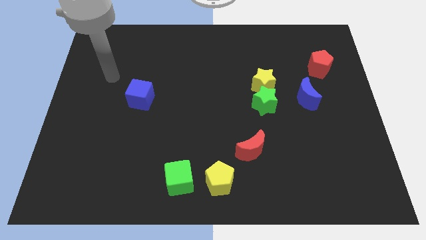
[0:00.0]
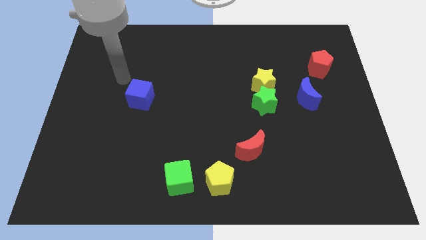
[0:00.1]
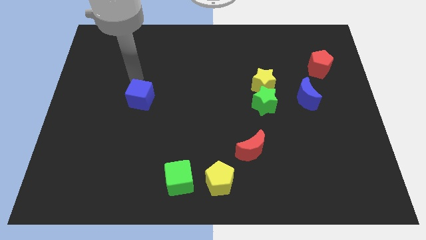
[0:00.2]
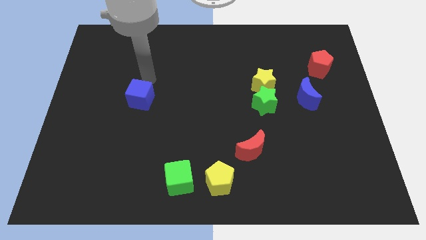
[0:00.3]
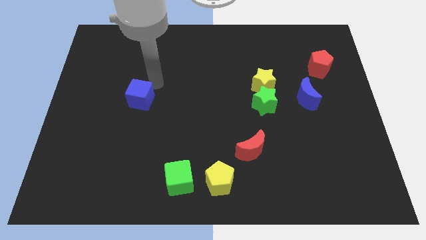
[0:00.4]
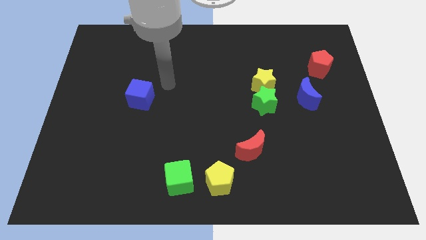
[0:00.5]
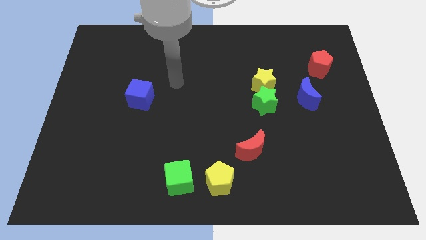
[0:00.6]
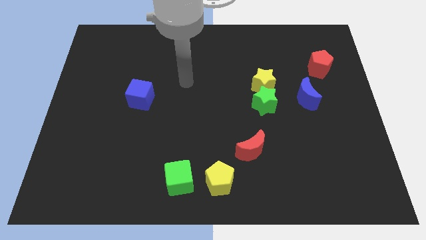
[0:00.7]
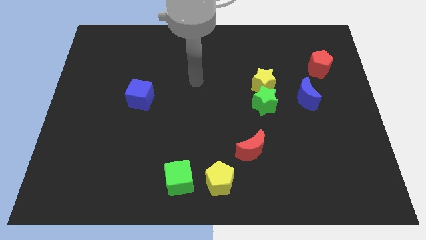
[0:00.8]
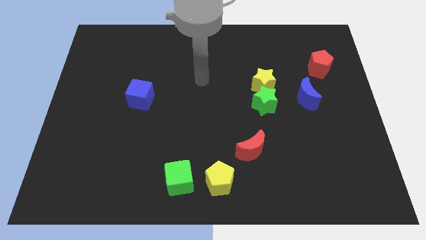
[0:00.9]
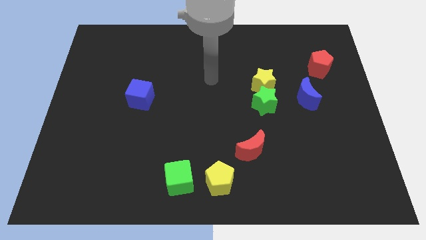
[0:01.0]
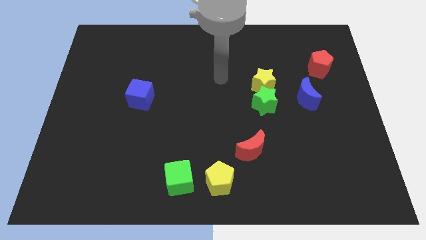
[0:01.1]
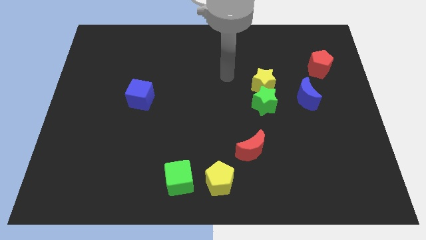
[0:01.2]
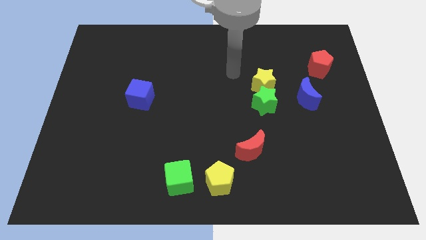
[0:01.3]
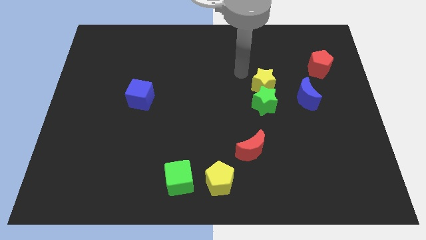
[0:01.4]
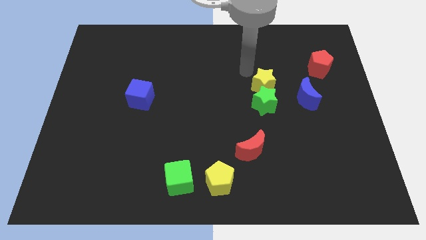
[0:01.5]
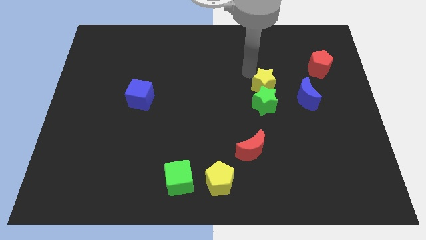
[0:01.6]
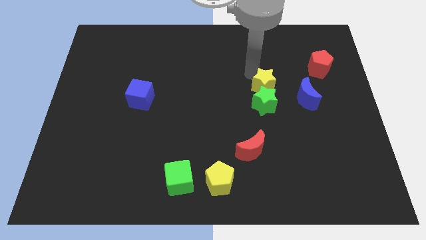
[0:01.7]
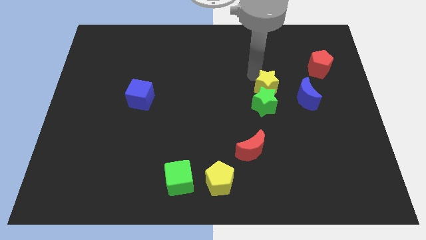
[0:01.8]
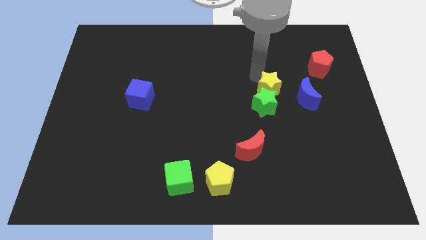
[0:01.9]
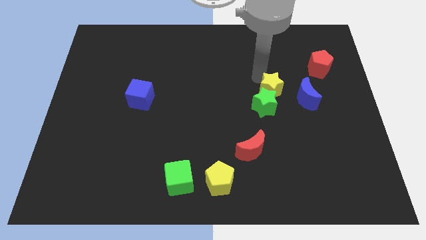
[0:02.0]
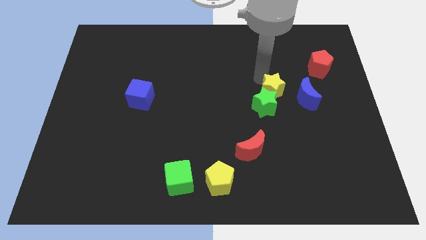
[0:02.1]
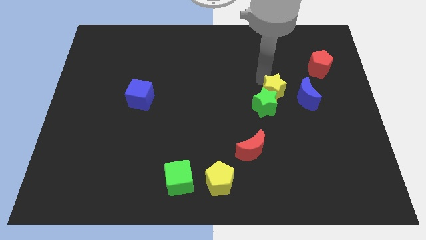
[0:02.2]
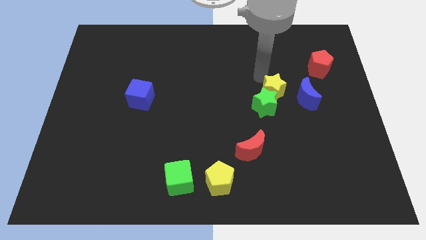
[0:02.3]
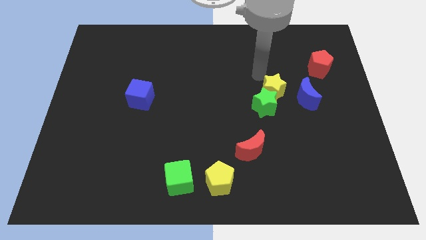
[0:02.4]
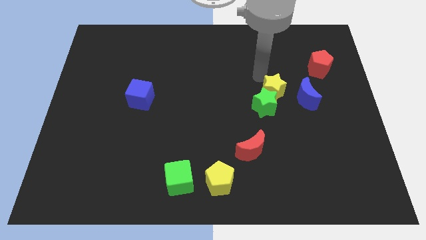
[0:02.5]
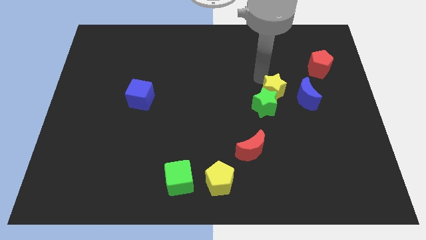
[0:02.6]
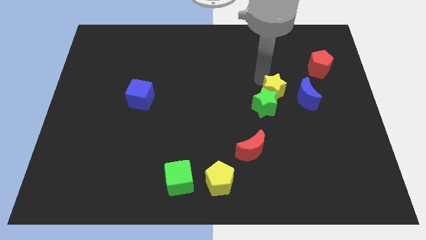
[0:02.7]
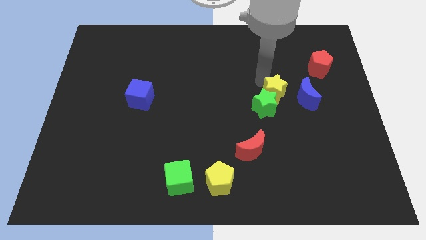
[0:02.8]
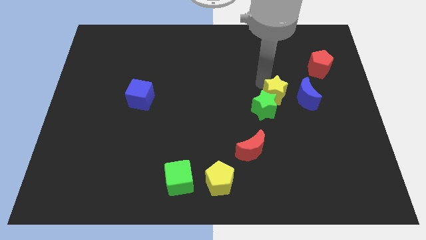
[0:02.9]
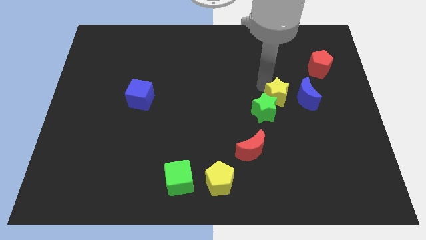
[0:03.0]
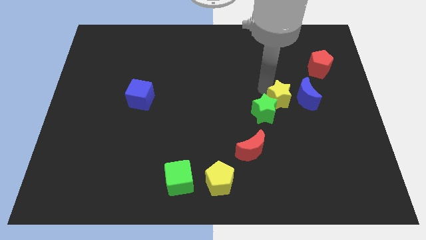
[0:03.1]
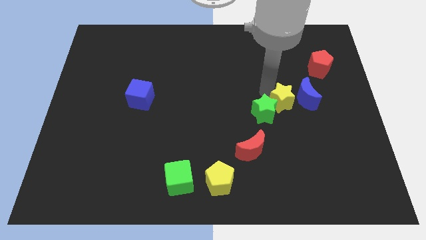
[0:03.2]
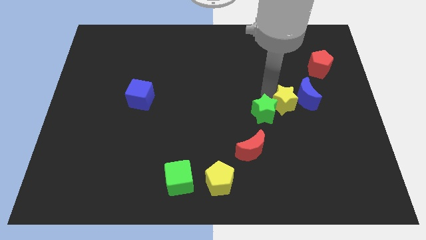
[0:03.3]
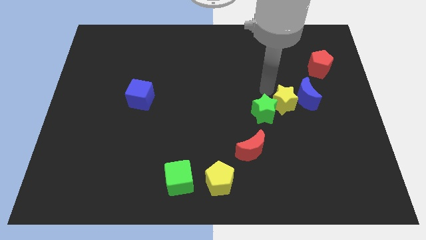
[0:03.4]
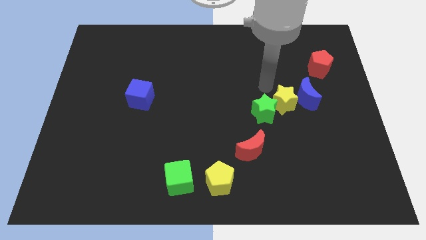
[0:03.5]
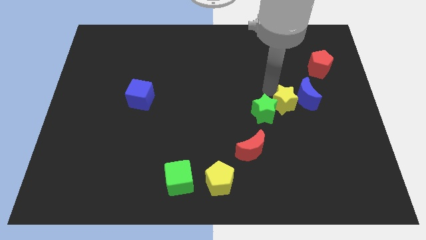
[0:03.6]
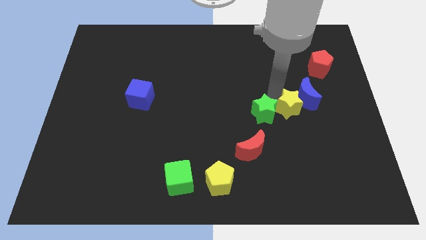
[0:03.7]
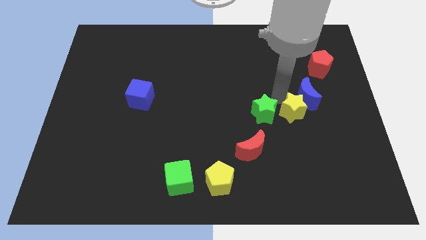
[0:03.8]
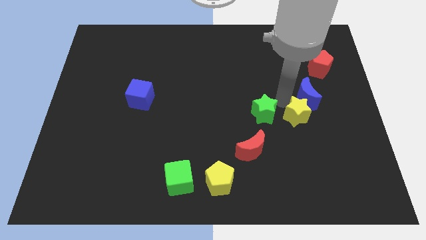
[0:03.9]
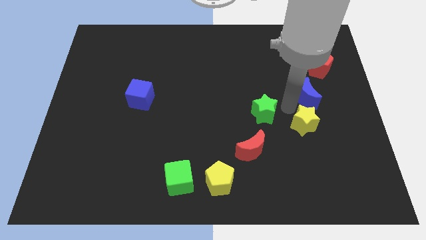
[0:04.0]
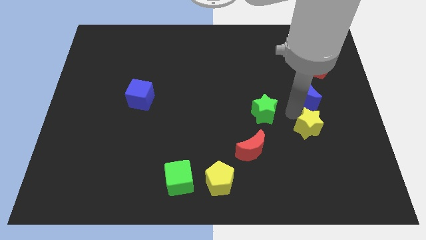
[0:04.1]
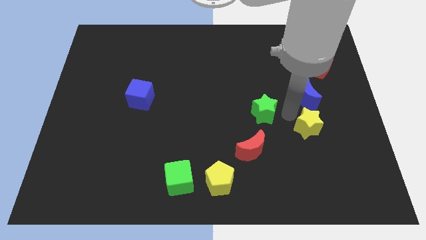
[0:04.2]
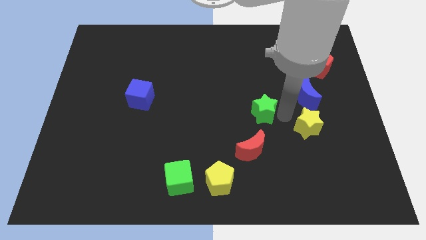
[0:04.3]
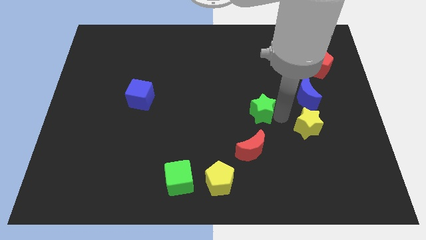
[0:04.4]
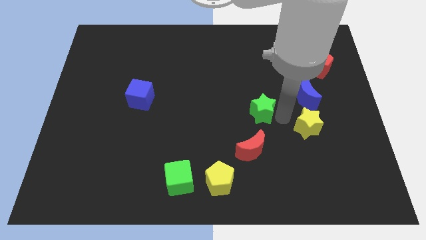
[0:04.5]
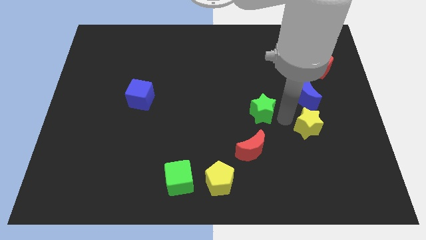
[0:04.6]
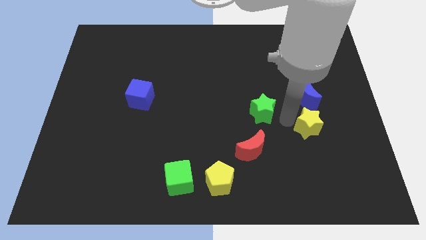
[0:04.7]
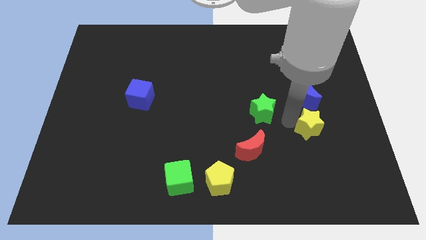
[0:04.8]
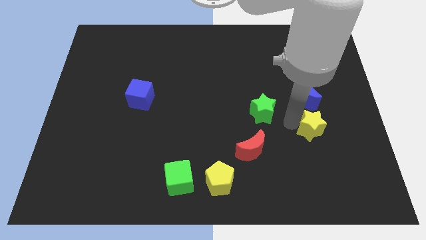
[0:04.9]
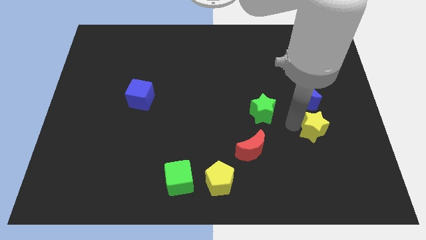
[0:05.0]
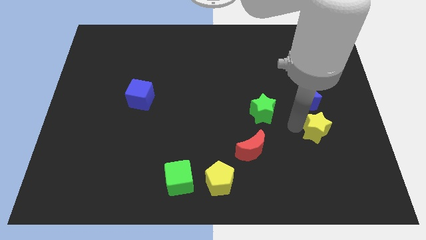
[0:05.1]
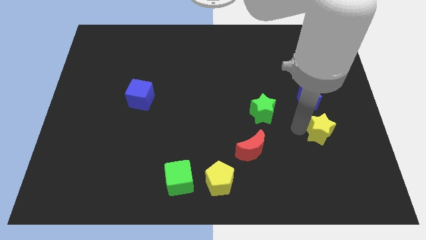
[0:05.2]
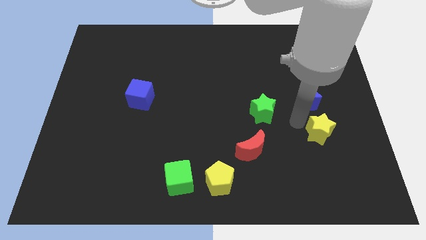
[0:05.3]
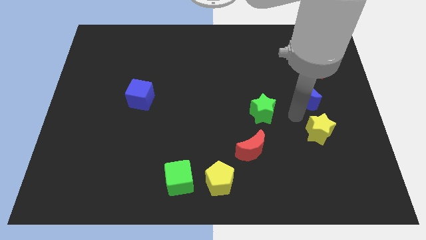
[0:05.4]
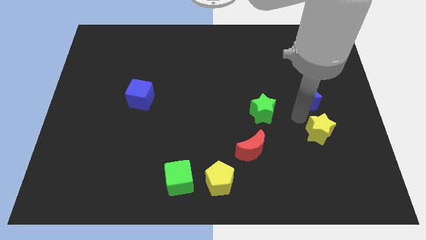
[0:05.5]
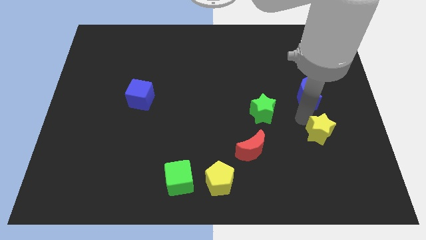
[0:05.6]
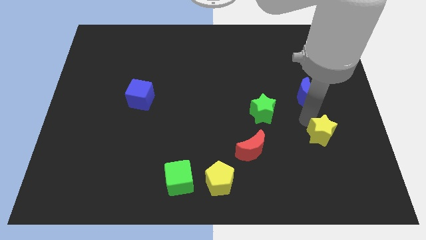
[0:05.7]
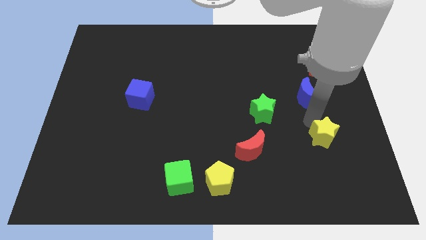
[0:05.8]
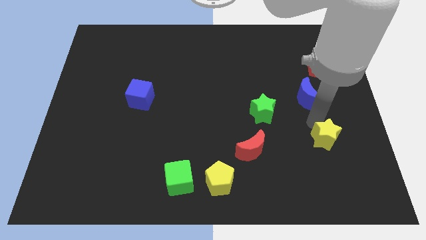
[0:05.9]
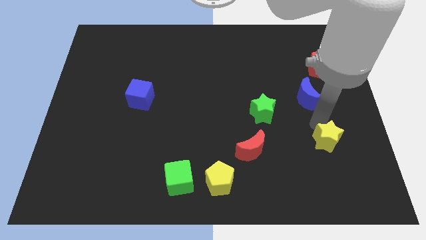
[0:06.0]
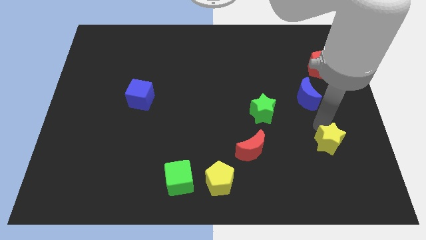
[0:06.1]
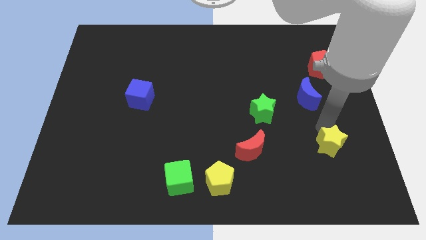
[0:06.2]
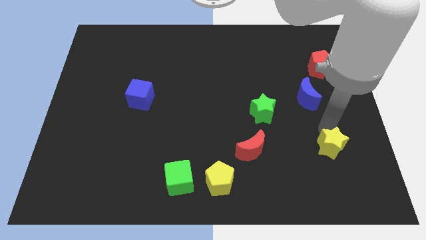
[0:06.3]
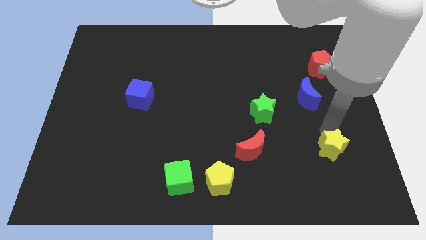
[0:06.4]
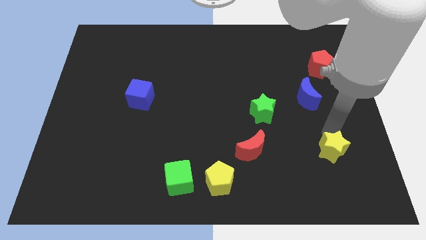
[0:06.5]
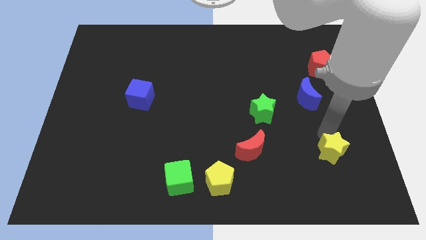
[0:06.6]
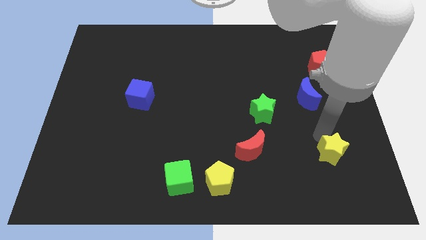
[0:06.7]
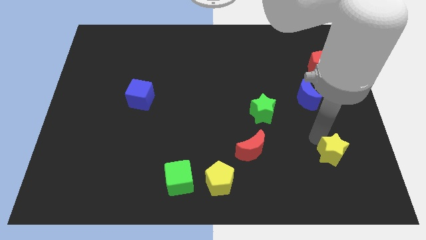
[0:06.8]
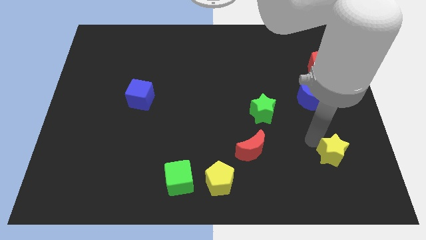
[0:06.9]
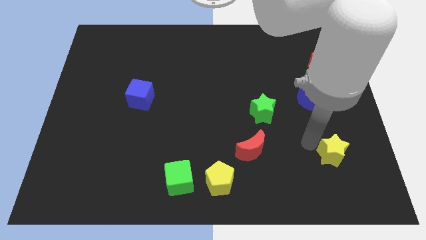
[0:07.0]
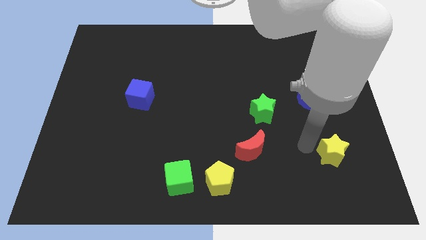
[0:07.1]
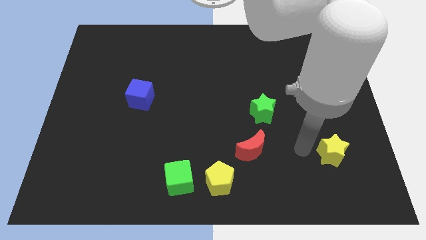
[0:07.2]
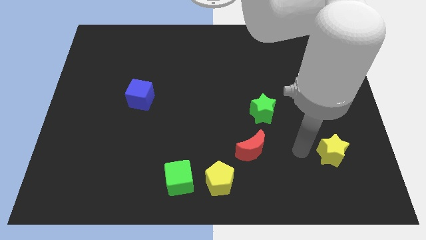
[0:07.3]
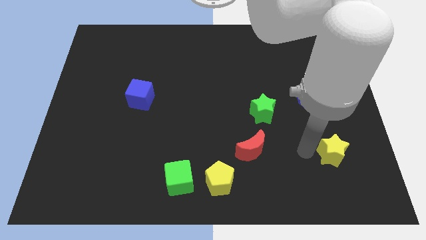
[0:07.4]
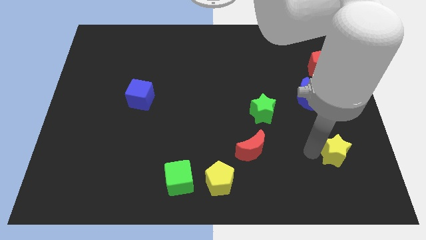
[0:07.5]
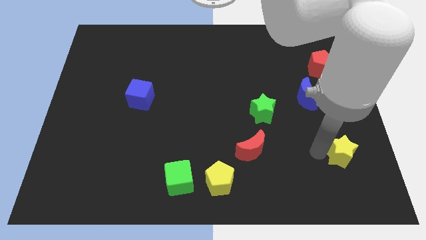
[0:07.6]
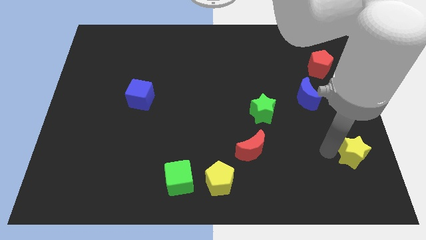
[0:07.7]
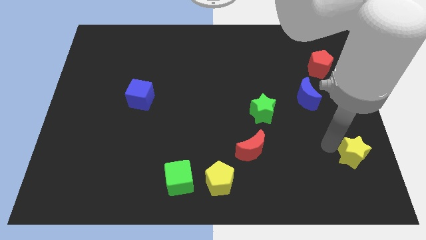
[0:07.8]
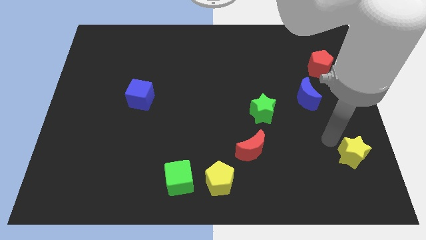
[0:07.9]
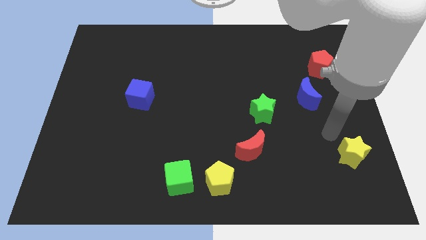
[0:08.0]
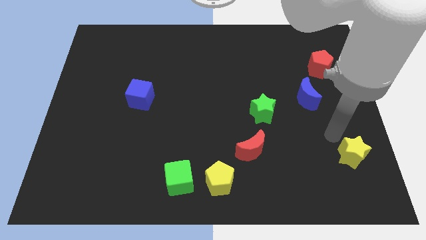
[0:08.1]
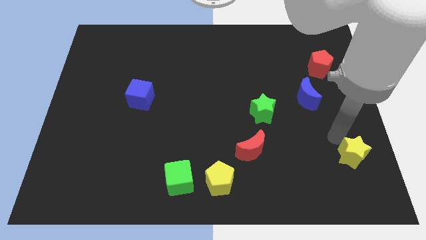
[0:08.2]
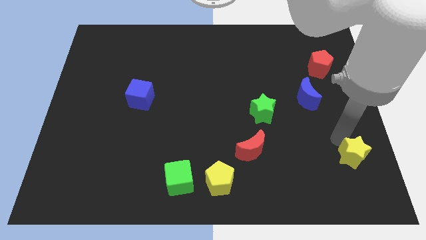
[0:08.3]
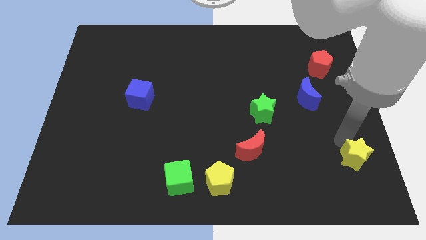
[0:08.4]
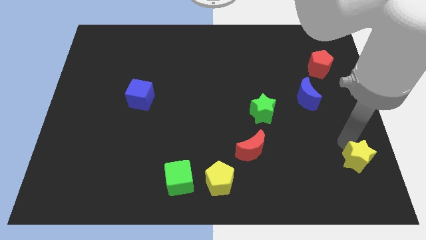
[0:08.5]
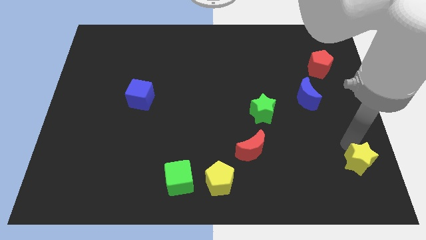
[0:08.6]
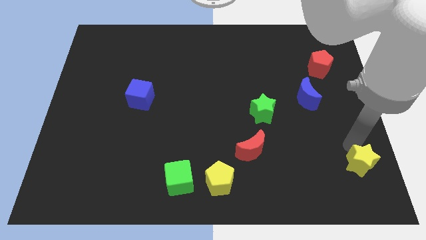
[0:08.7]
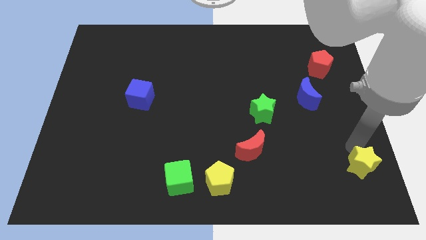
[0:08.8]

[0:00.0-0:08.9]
push the yellow star to the lower right corner
